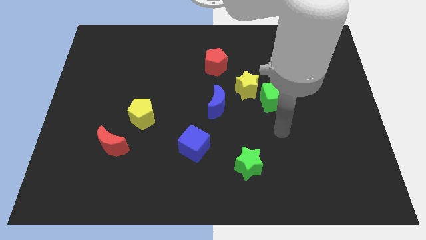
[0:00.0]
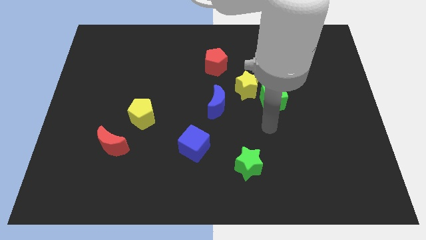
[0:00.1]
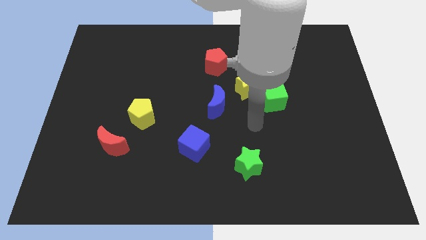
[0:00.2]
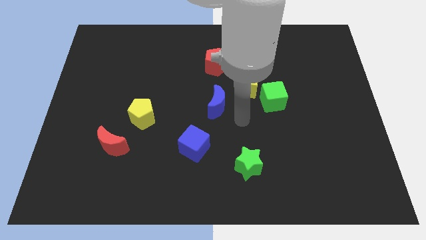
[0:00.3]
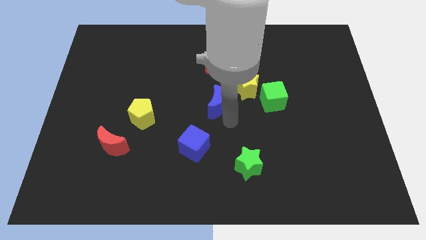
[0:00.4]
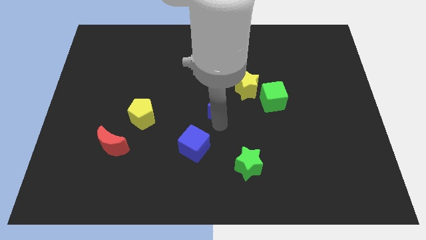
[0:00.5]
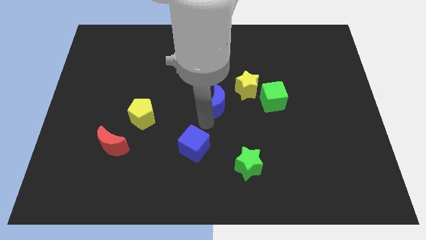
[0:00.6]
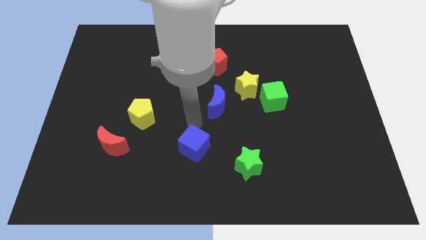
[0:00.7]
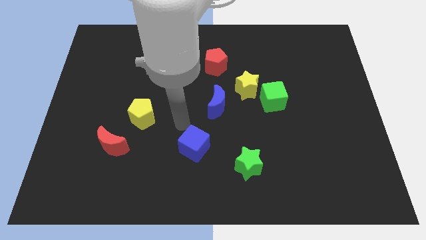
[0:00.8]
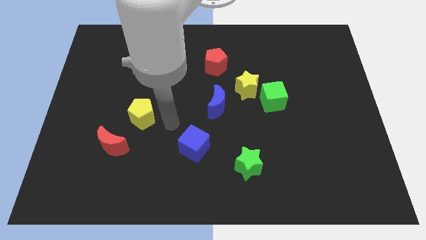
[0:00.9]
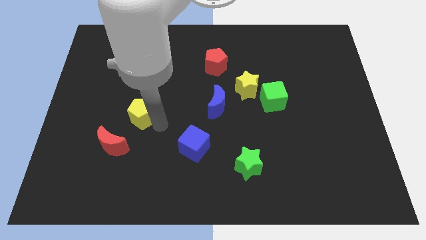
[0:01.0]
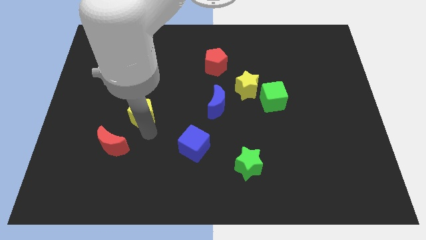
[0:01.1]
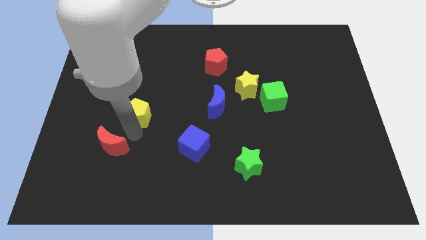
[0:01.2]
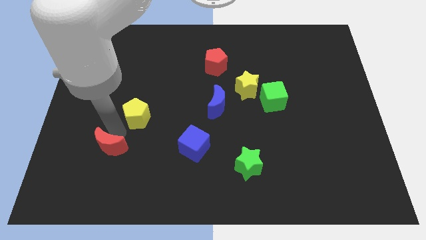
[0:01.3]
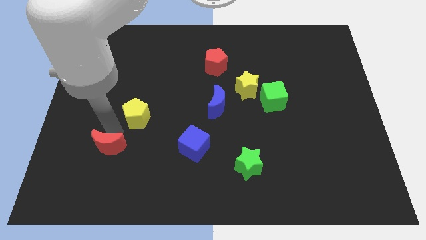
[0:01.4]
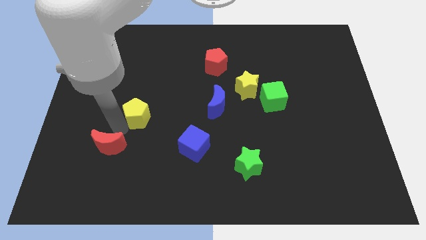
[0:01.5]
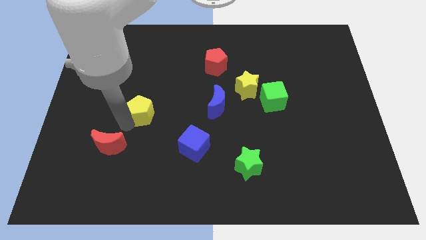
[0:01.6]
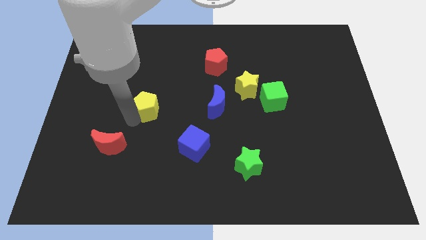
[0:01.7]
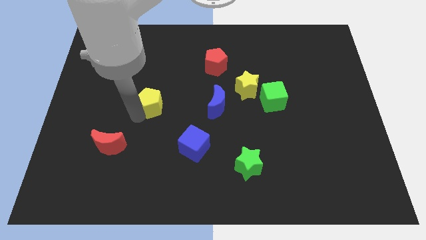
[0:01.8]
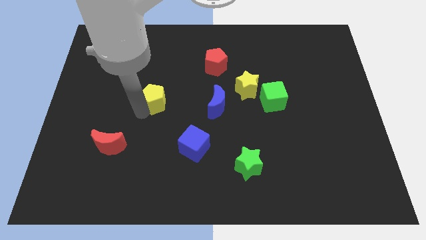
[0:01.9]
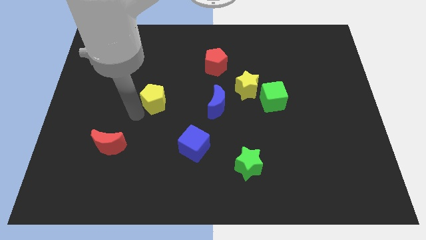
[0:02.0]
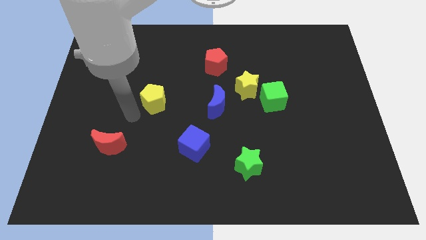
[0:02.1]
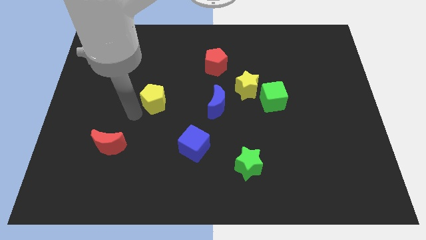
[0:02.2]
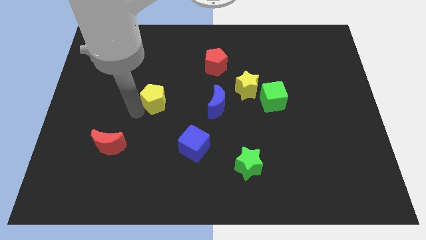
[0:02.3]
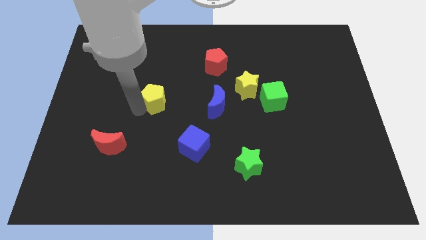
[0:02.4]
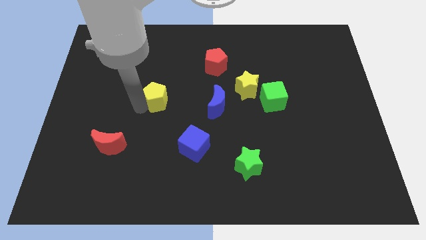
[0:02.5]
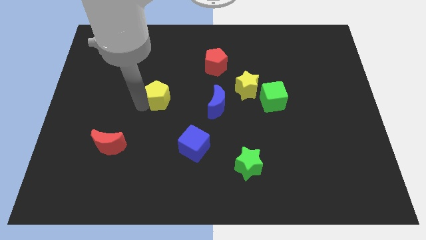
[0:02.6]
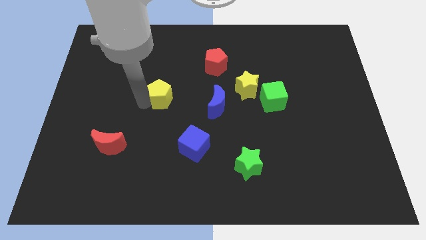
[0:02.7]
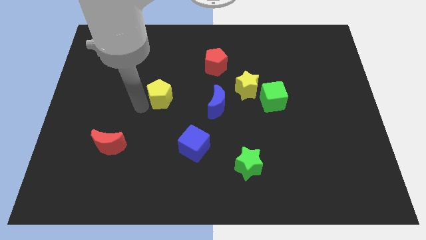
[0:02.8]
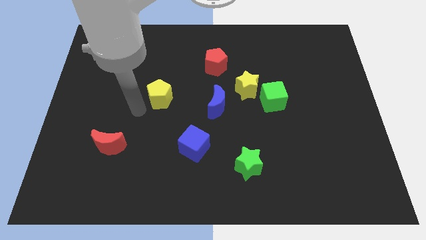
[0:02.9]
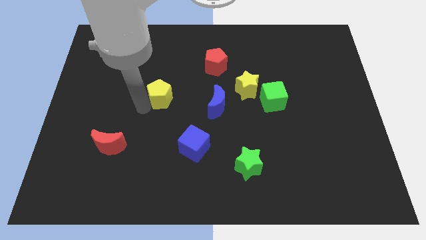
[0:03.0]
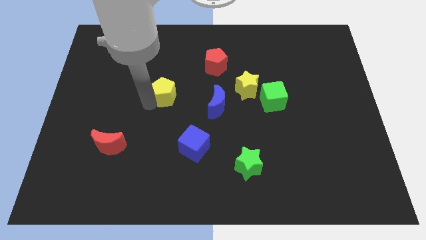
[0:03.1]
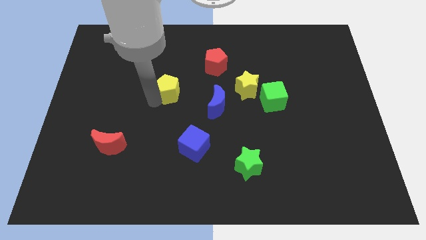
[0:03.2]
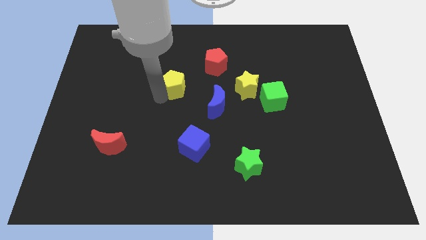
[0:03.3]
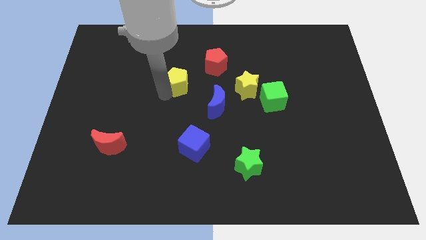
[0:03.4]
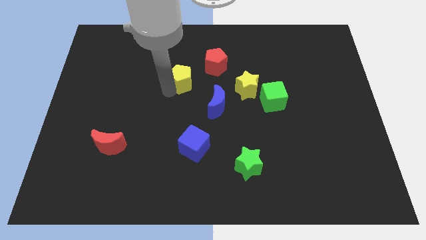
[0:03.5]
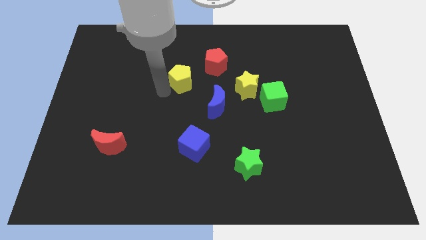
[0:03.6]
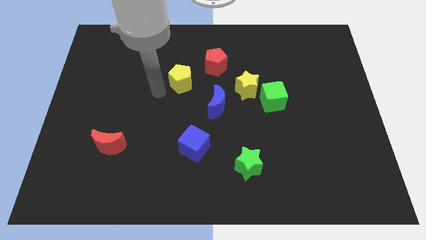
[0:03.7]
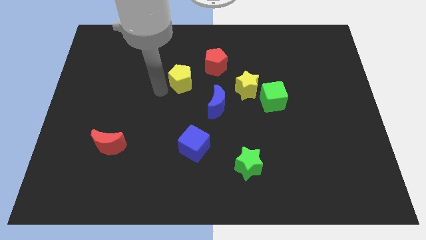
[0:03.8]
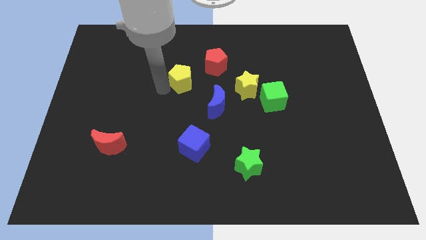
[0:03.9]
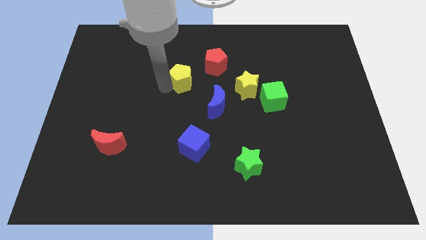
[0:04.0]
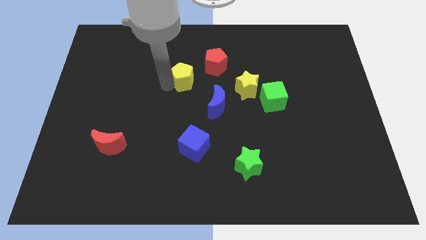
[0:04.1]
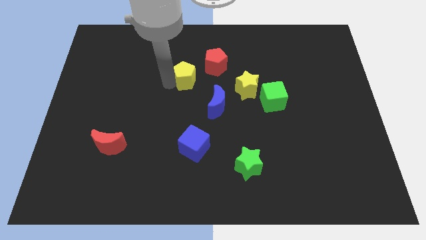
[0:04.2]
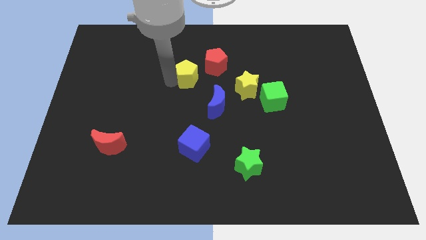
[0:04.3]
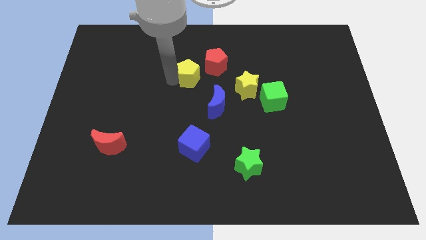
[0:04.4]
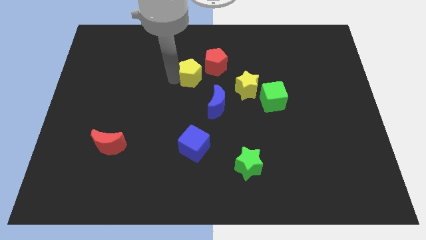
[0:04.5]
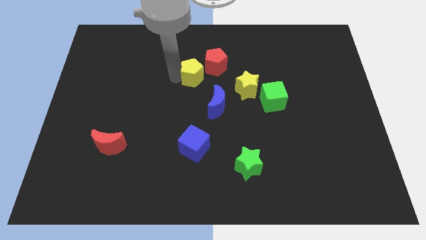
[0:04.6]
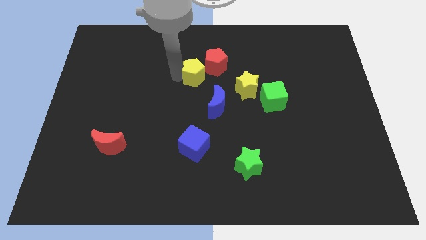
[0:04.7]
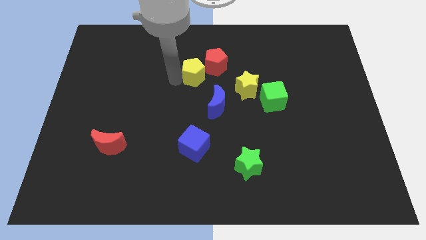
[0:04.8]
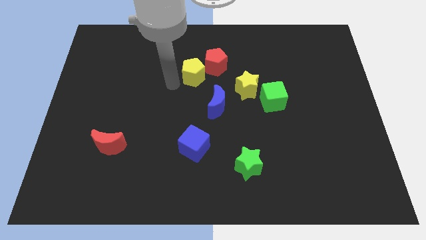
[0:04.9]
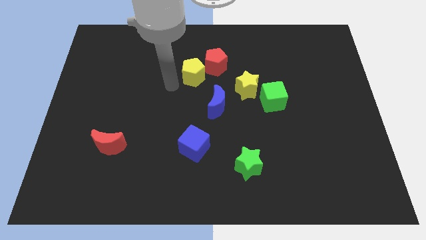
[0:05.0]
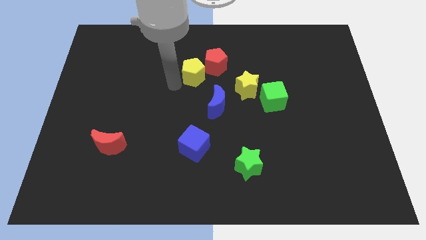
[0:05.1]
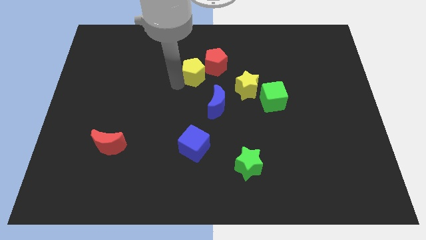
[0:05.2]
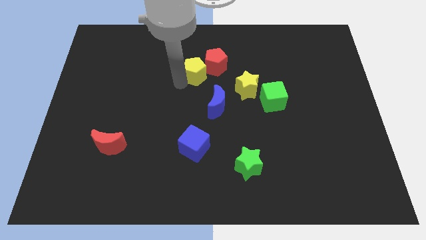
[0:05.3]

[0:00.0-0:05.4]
push the yellow pentagon to the red pentagon

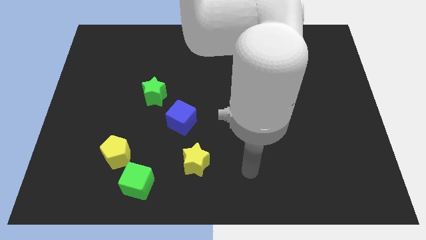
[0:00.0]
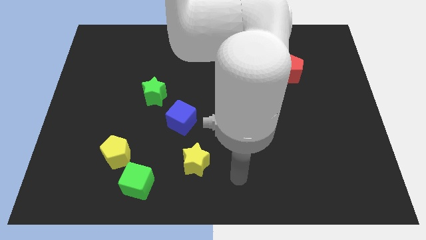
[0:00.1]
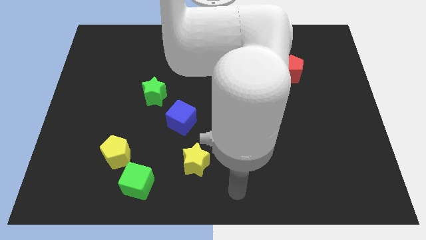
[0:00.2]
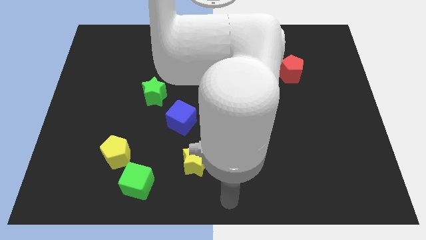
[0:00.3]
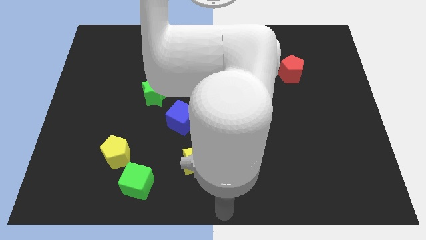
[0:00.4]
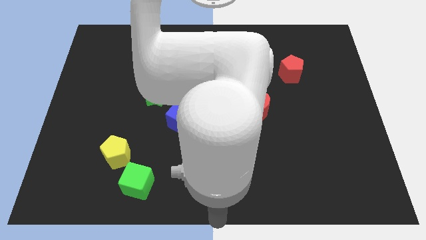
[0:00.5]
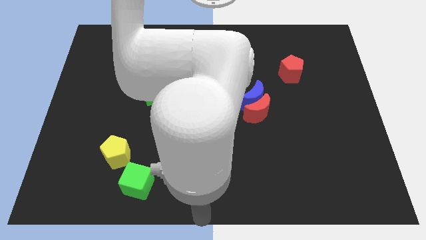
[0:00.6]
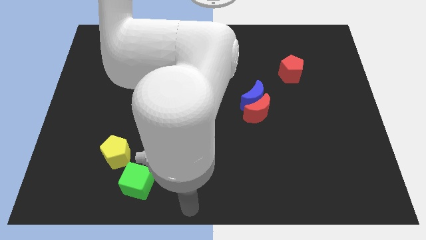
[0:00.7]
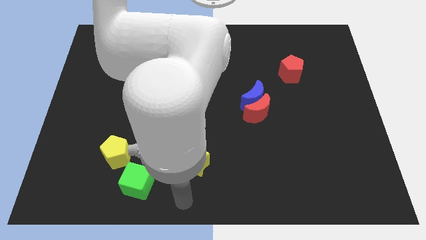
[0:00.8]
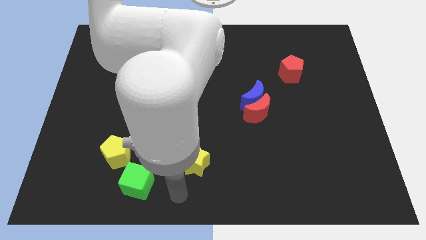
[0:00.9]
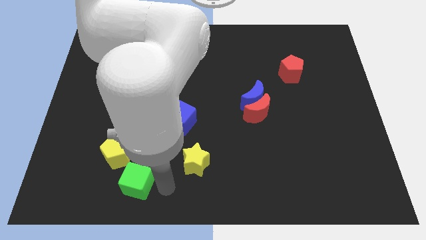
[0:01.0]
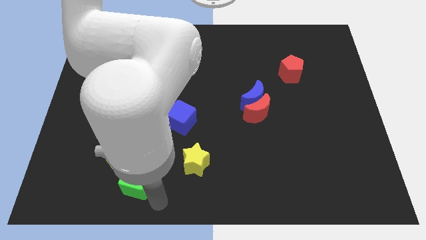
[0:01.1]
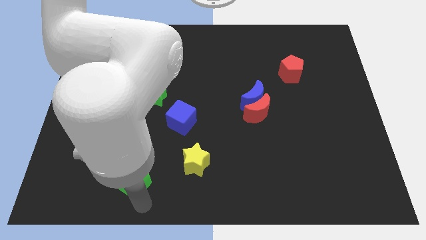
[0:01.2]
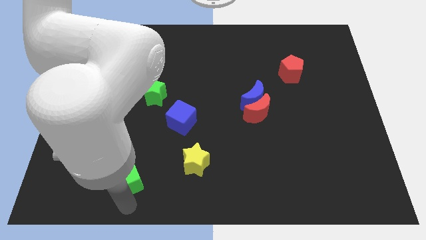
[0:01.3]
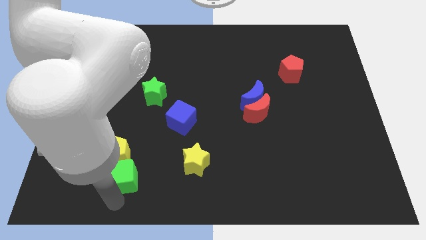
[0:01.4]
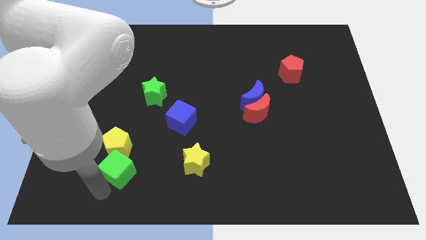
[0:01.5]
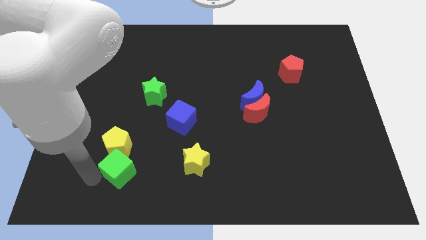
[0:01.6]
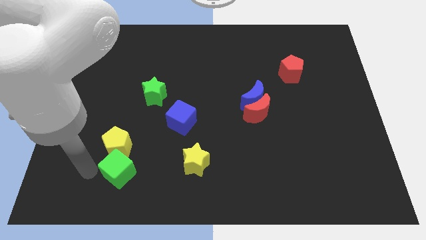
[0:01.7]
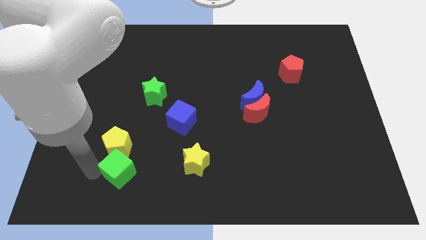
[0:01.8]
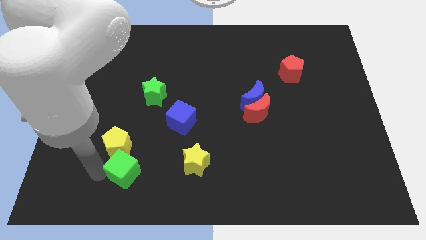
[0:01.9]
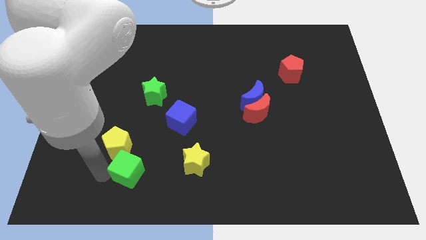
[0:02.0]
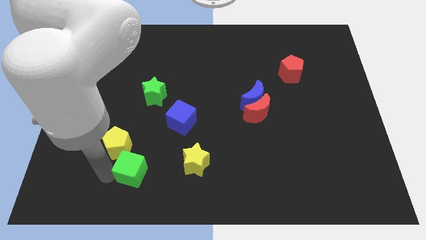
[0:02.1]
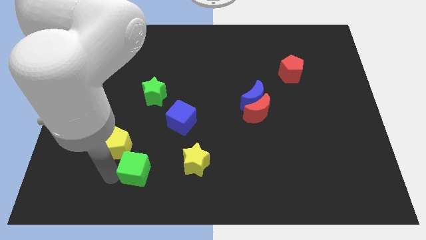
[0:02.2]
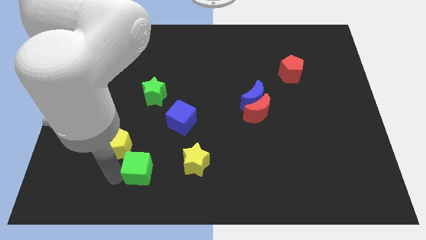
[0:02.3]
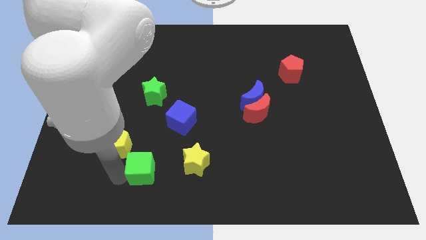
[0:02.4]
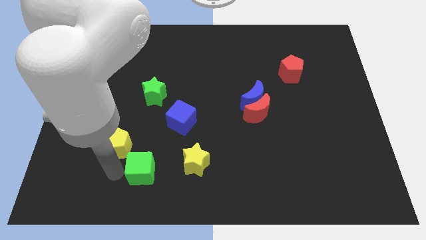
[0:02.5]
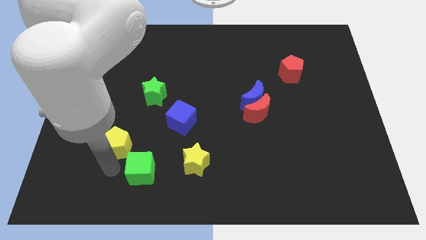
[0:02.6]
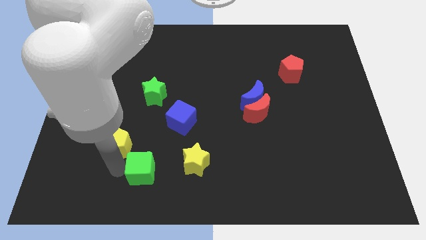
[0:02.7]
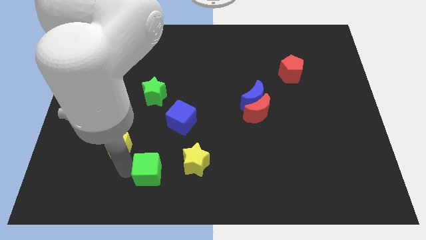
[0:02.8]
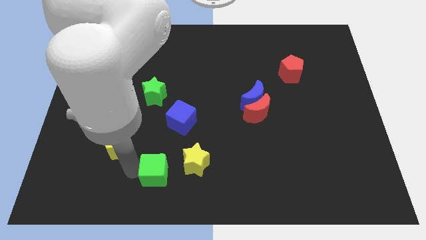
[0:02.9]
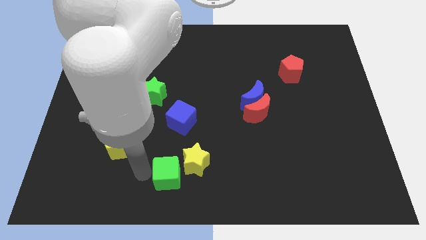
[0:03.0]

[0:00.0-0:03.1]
move the green cube to the yellow star
